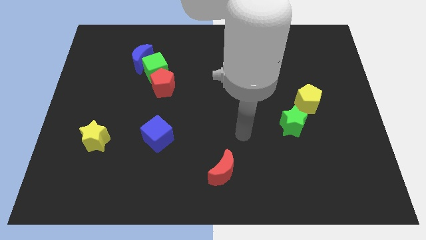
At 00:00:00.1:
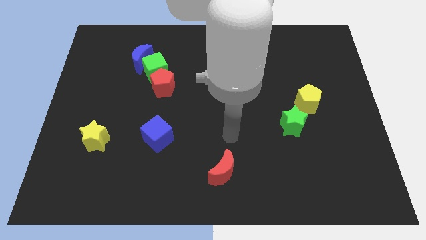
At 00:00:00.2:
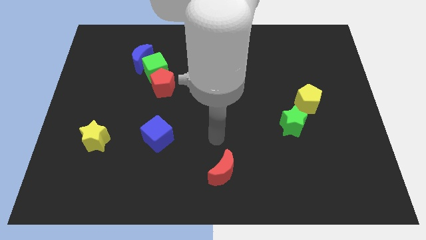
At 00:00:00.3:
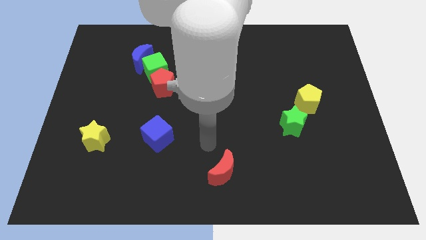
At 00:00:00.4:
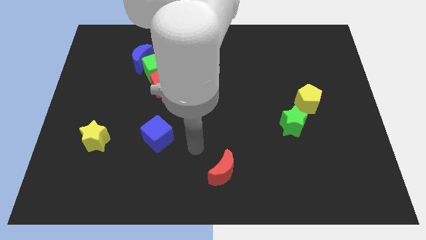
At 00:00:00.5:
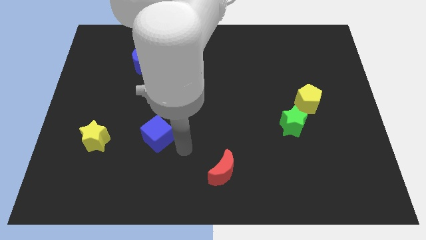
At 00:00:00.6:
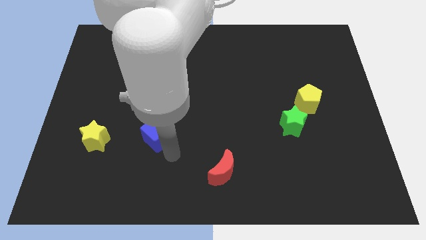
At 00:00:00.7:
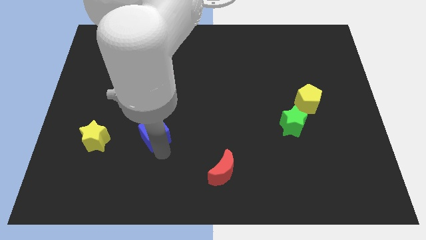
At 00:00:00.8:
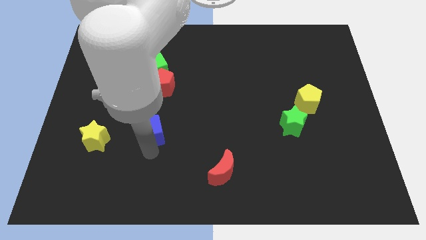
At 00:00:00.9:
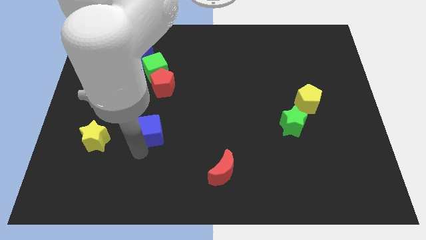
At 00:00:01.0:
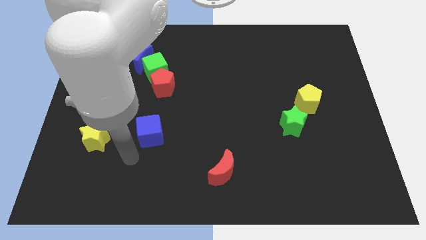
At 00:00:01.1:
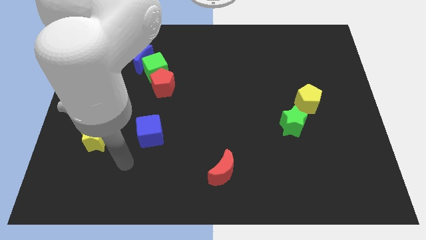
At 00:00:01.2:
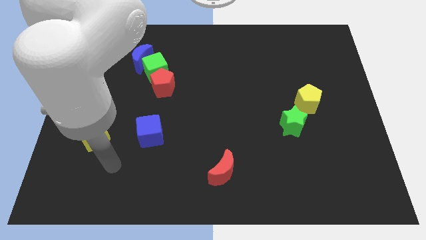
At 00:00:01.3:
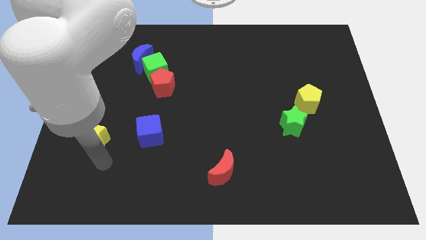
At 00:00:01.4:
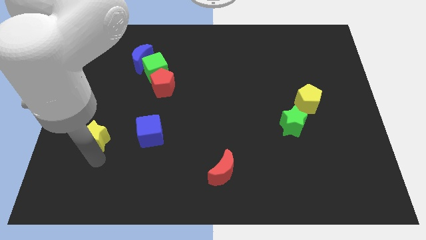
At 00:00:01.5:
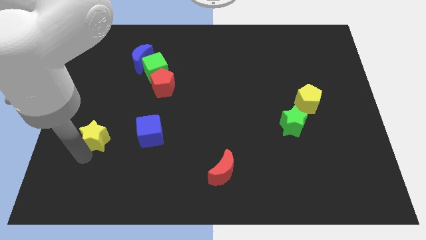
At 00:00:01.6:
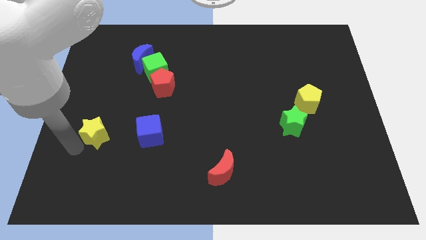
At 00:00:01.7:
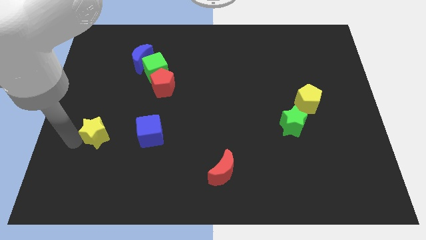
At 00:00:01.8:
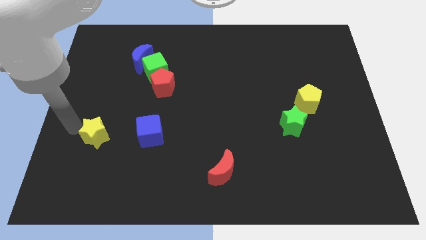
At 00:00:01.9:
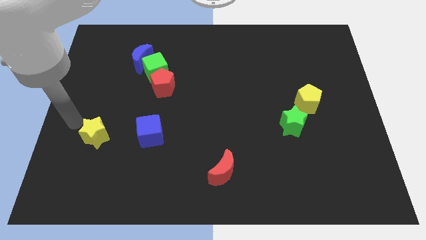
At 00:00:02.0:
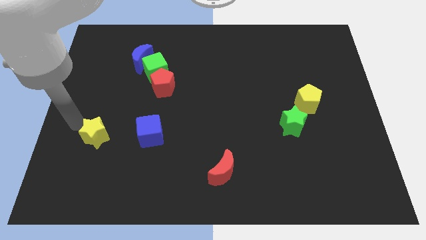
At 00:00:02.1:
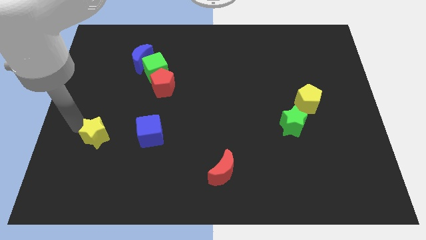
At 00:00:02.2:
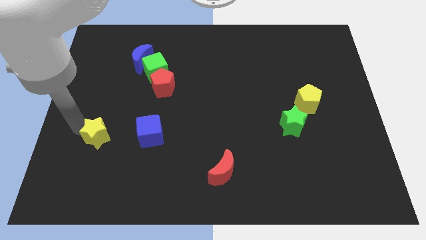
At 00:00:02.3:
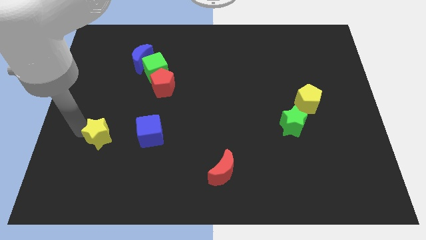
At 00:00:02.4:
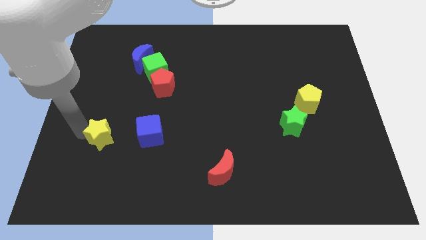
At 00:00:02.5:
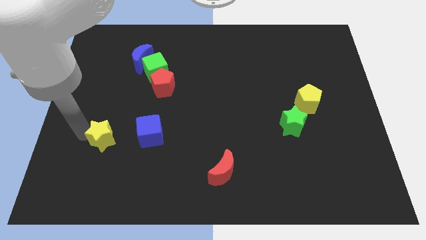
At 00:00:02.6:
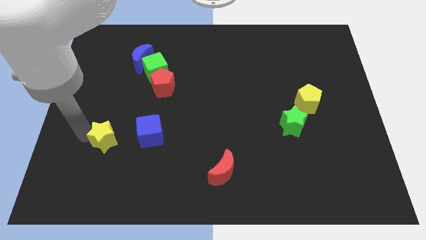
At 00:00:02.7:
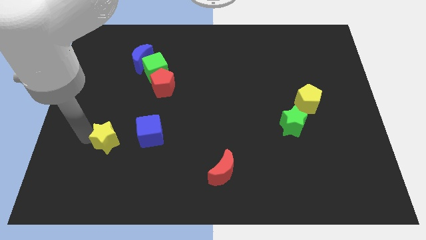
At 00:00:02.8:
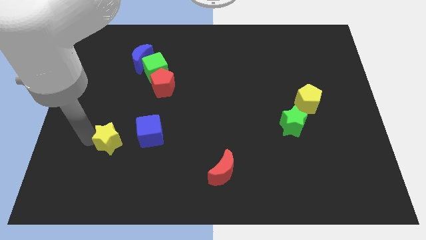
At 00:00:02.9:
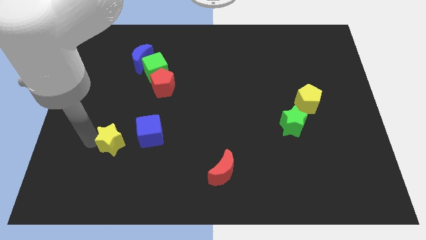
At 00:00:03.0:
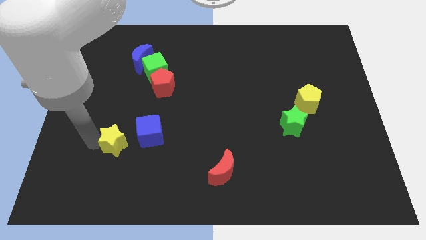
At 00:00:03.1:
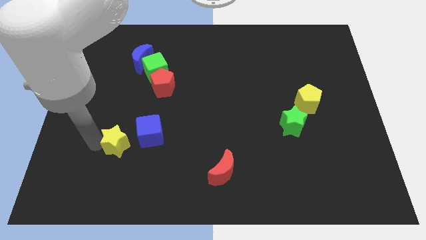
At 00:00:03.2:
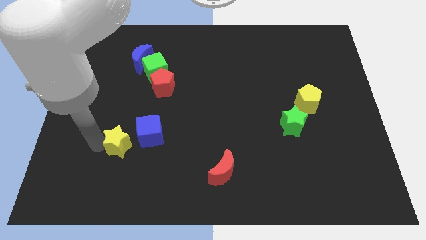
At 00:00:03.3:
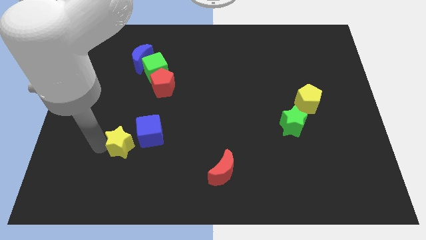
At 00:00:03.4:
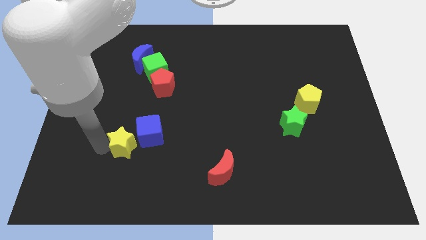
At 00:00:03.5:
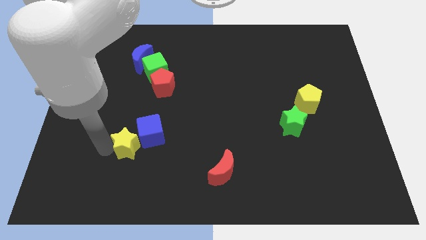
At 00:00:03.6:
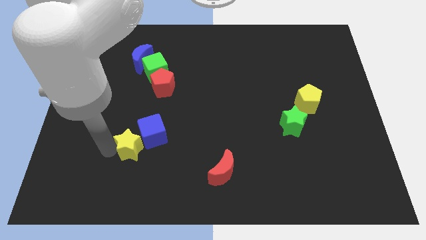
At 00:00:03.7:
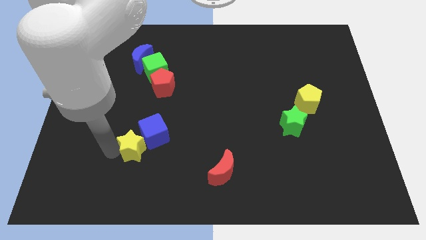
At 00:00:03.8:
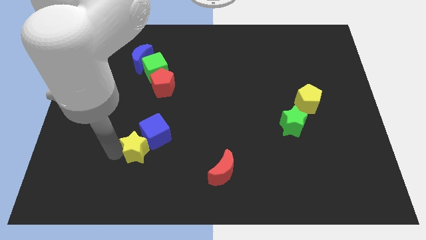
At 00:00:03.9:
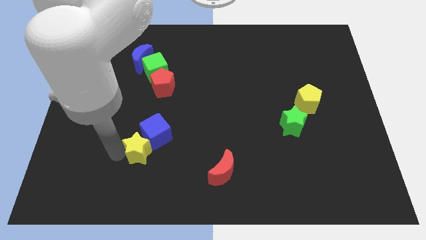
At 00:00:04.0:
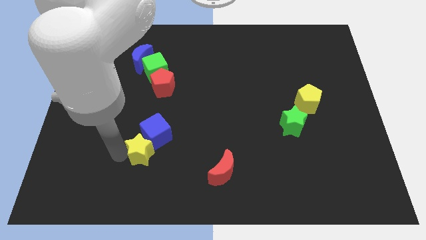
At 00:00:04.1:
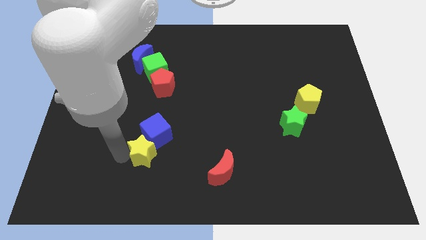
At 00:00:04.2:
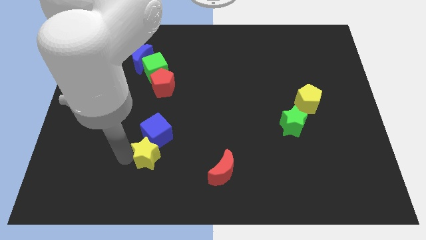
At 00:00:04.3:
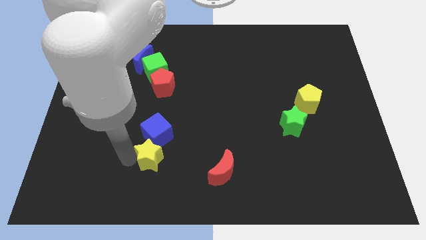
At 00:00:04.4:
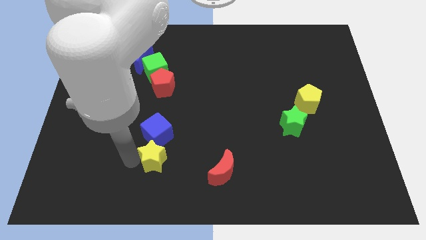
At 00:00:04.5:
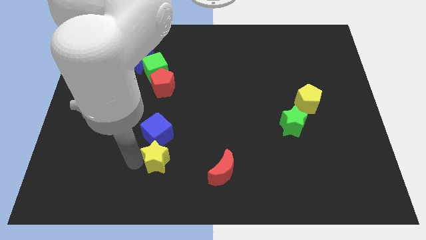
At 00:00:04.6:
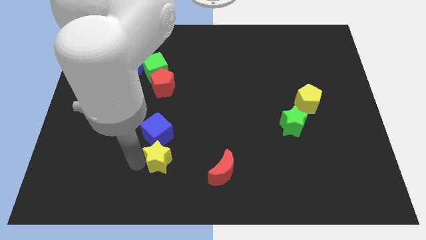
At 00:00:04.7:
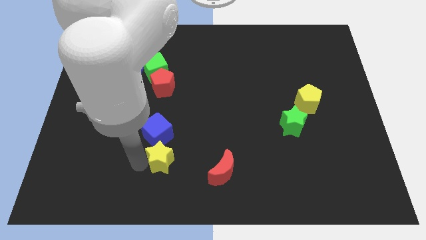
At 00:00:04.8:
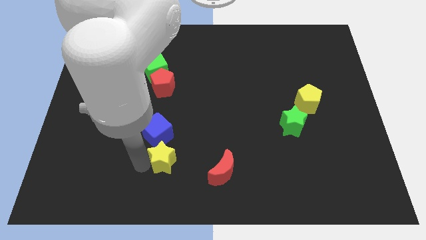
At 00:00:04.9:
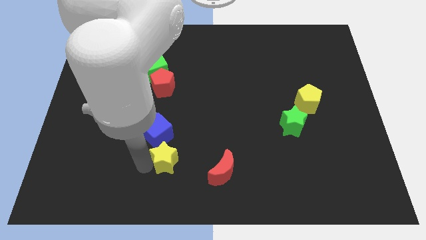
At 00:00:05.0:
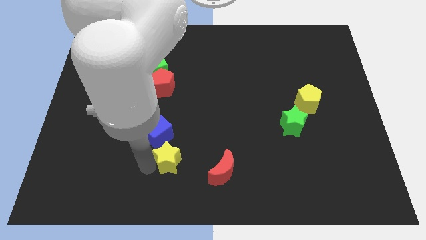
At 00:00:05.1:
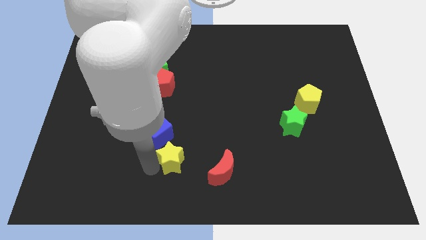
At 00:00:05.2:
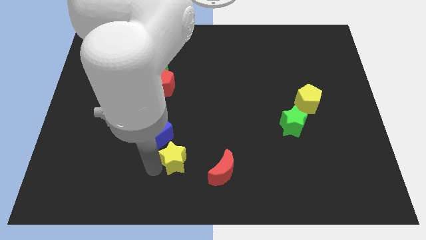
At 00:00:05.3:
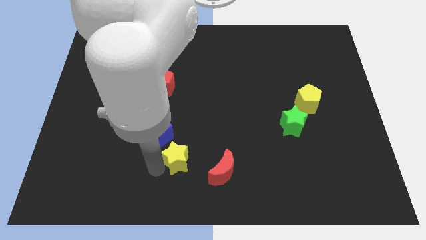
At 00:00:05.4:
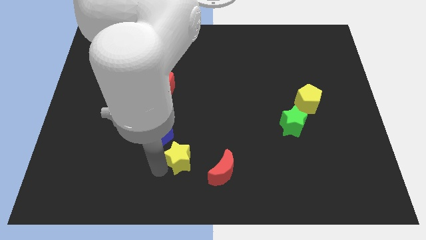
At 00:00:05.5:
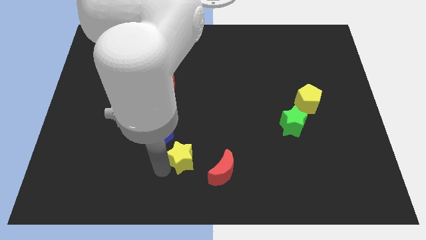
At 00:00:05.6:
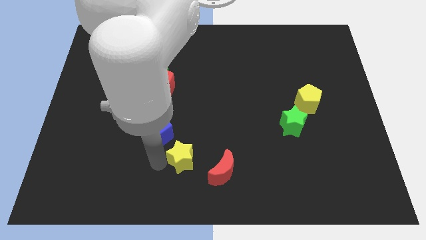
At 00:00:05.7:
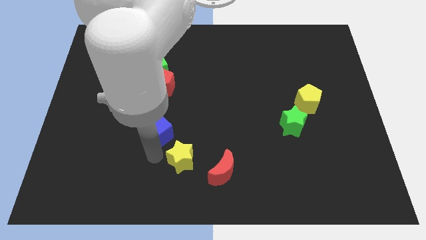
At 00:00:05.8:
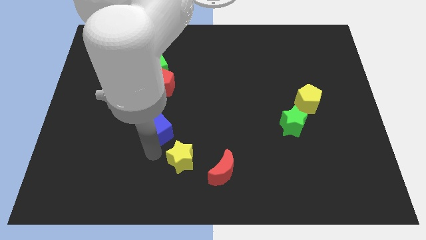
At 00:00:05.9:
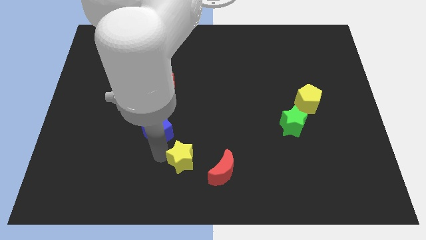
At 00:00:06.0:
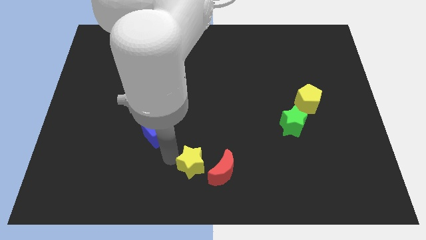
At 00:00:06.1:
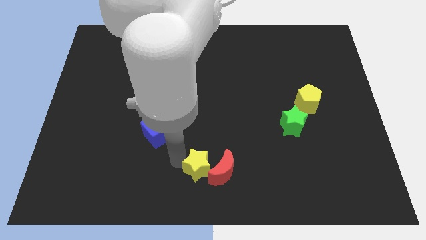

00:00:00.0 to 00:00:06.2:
push the yellow star close to the red moon

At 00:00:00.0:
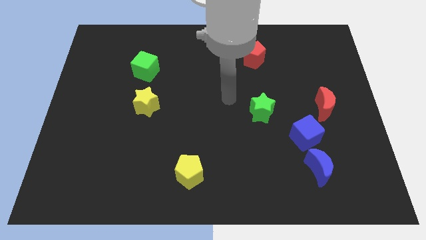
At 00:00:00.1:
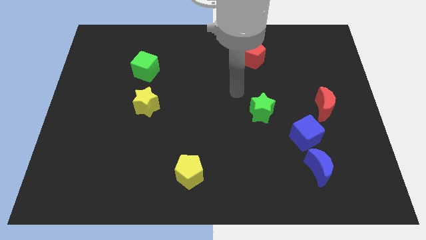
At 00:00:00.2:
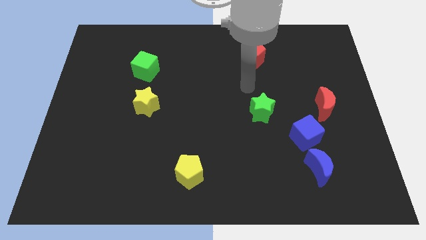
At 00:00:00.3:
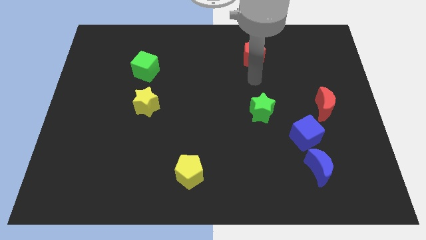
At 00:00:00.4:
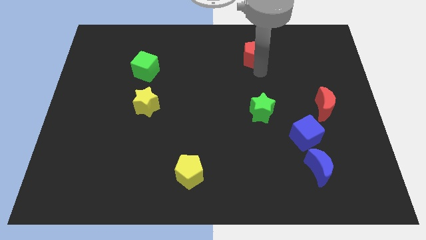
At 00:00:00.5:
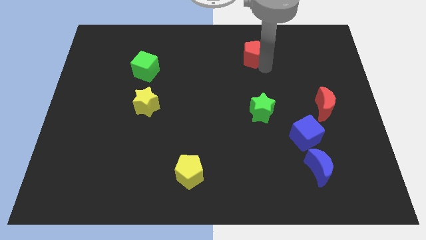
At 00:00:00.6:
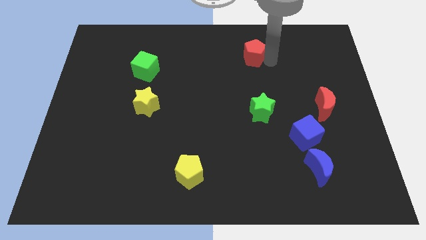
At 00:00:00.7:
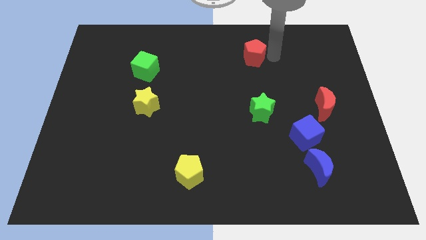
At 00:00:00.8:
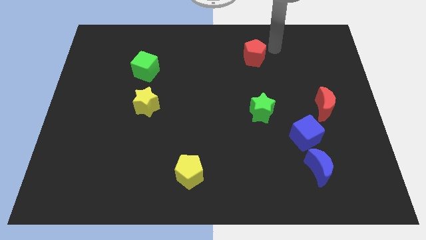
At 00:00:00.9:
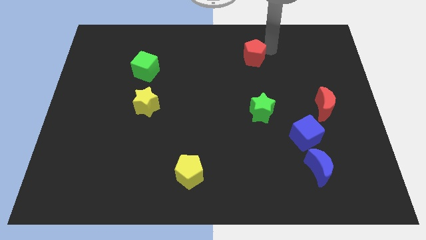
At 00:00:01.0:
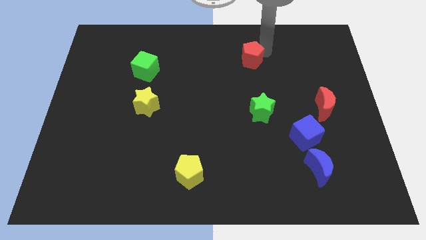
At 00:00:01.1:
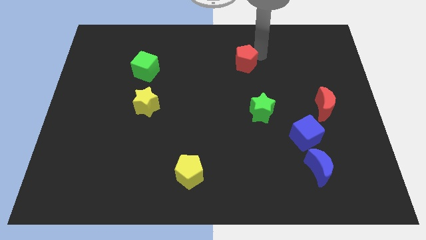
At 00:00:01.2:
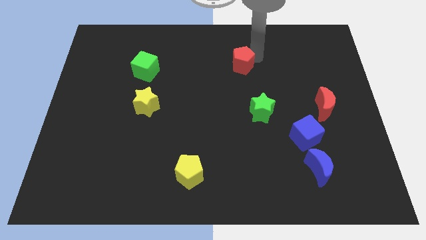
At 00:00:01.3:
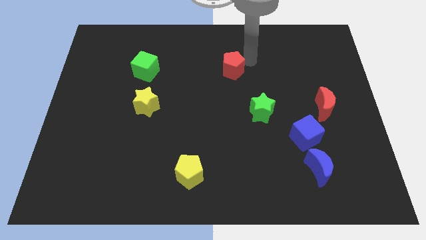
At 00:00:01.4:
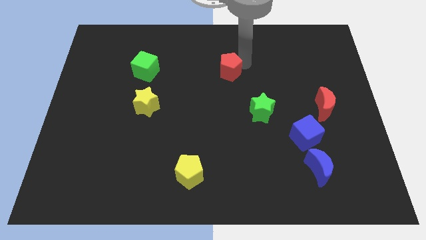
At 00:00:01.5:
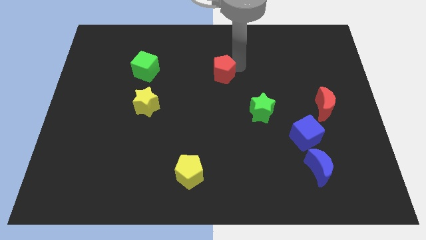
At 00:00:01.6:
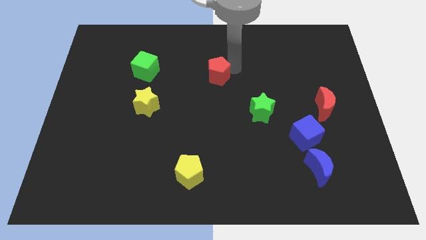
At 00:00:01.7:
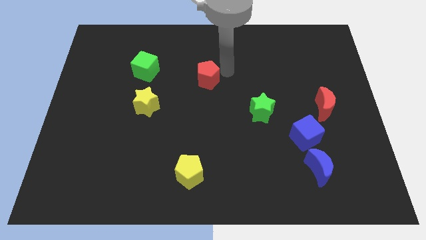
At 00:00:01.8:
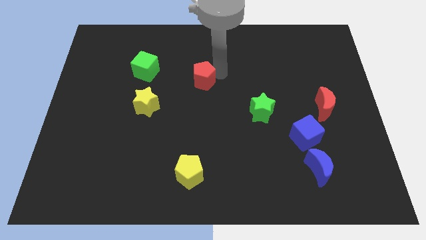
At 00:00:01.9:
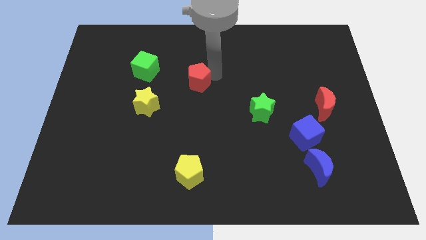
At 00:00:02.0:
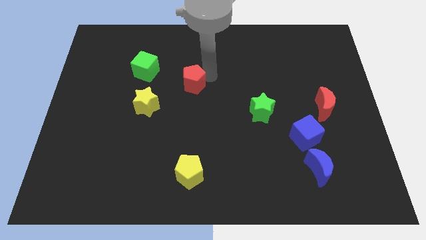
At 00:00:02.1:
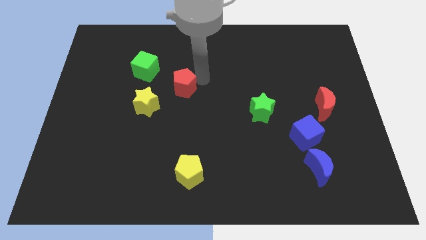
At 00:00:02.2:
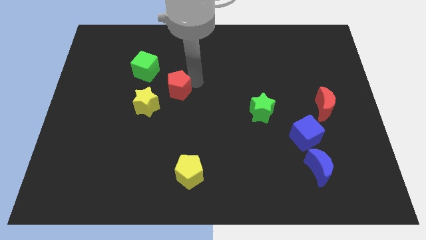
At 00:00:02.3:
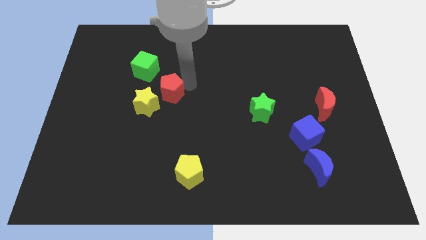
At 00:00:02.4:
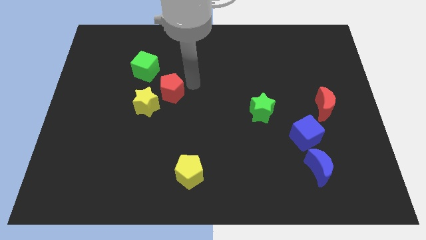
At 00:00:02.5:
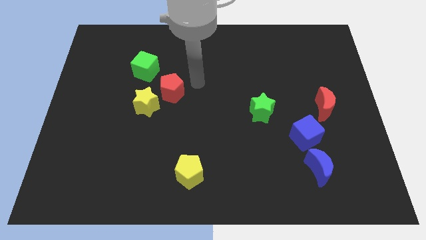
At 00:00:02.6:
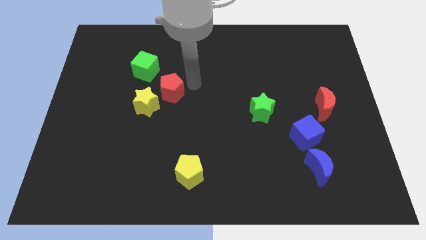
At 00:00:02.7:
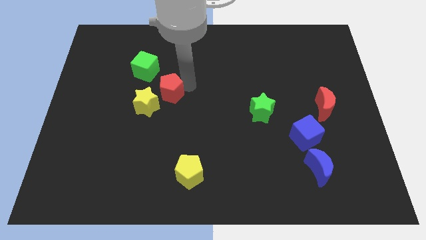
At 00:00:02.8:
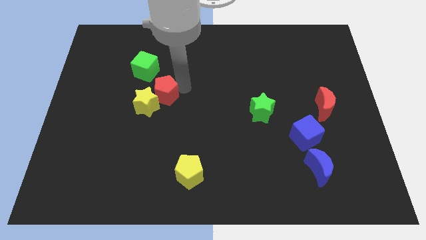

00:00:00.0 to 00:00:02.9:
move the red pentagon next to the yellow star
